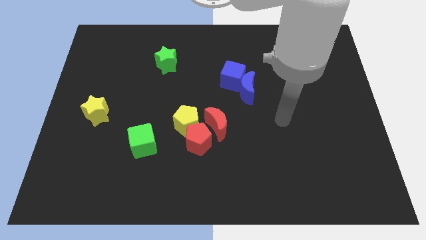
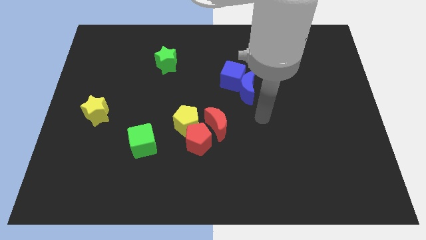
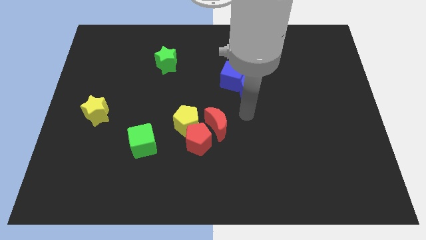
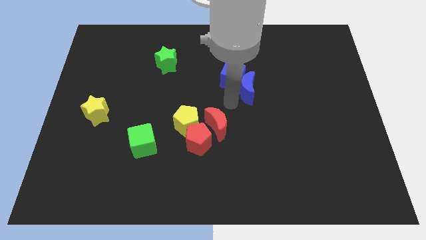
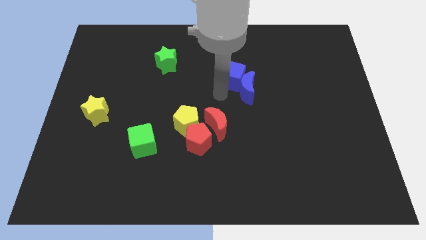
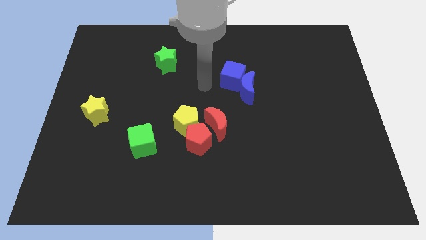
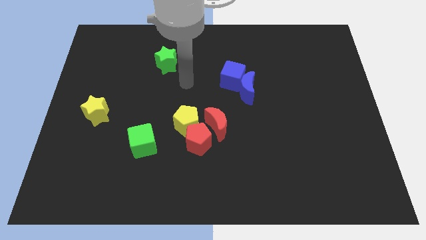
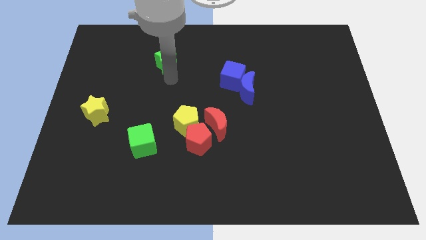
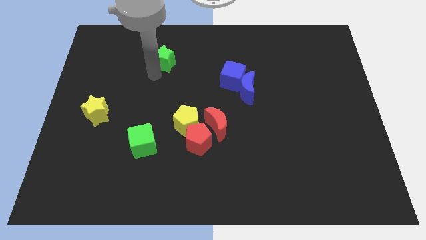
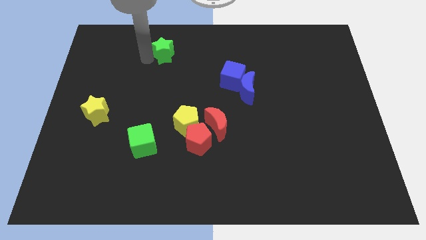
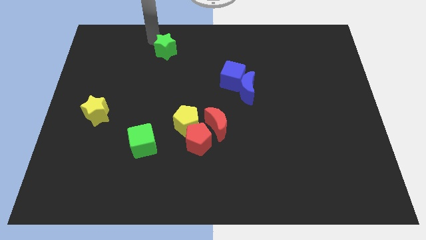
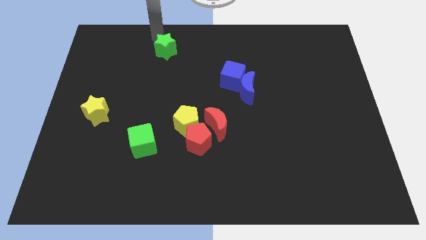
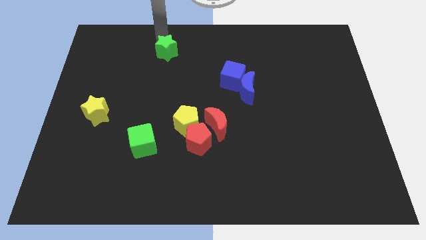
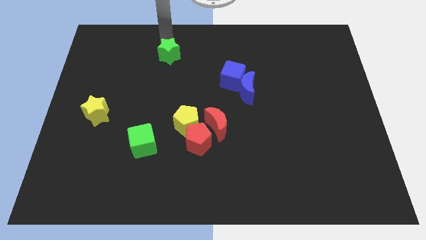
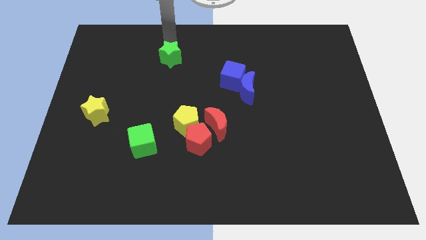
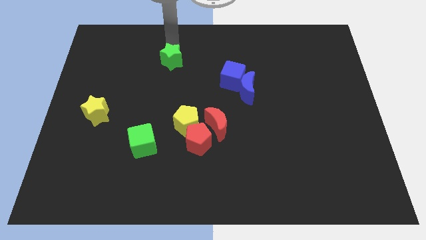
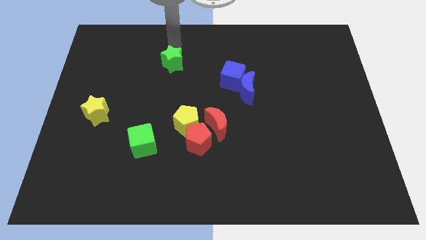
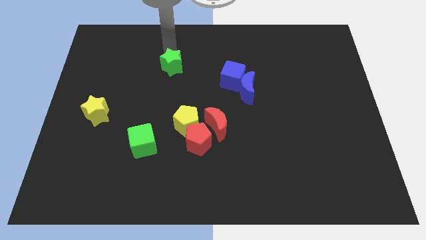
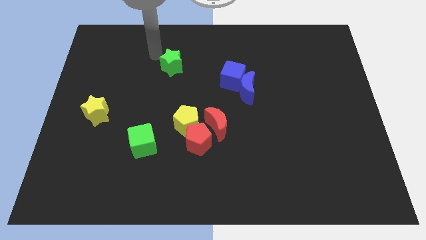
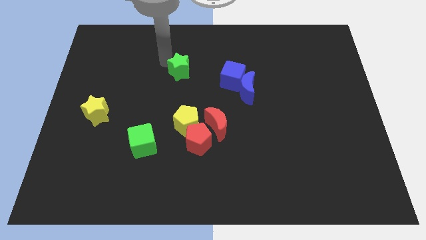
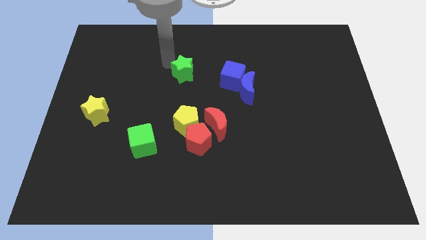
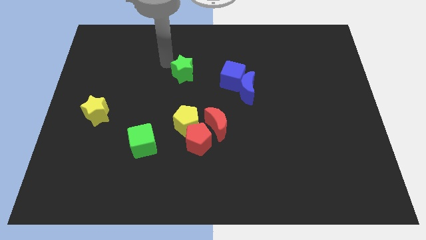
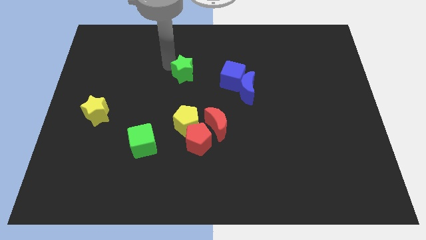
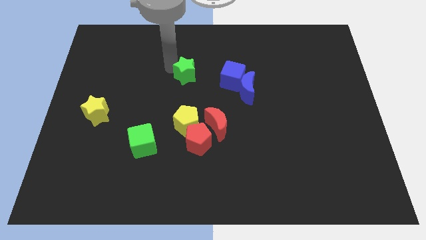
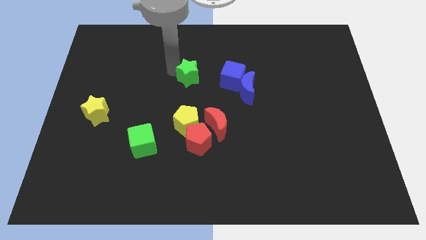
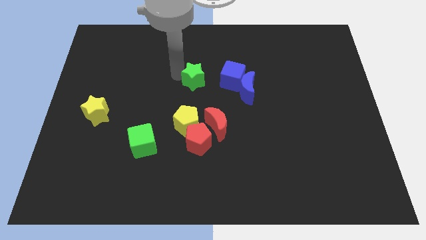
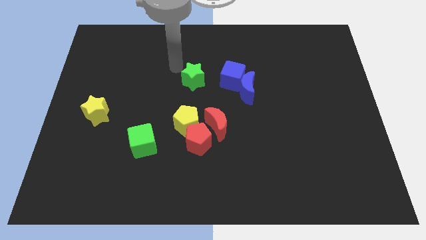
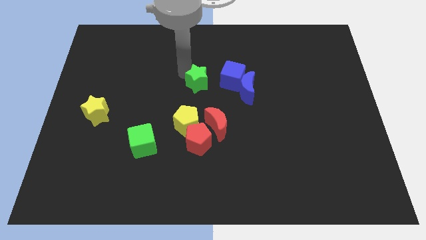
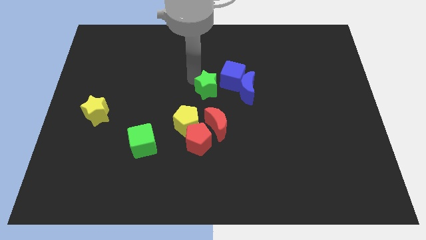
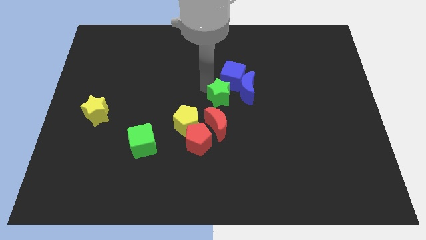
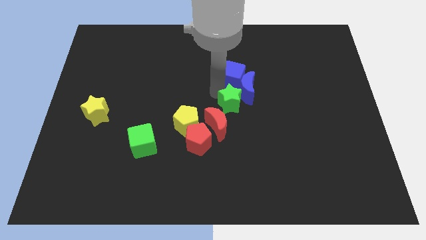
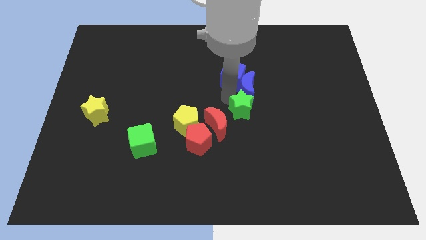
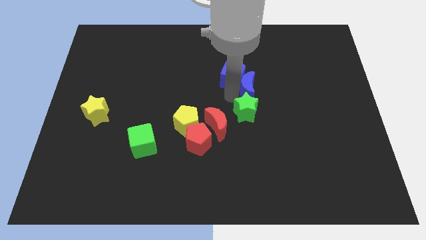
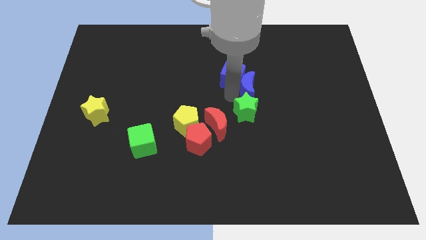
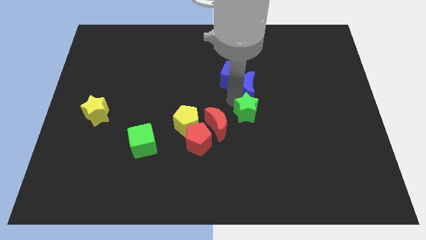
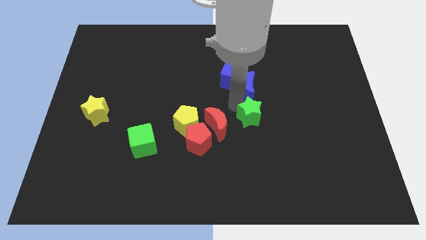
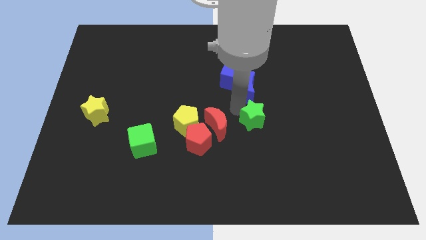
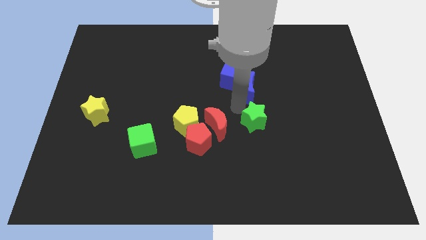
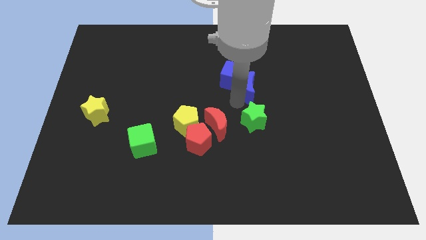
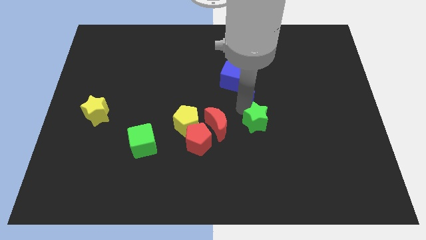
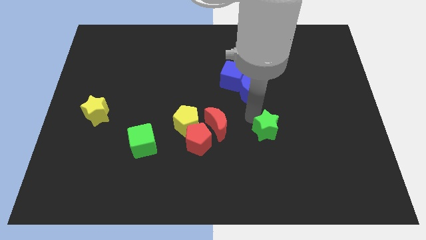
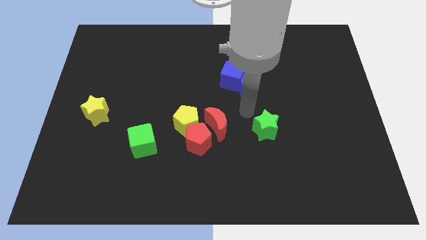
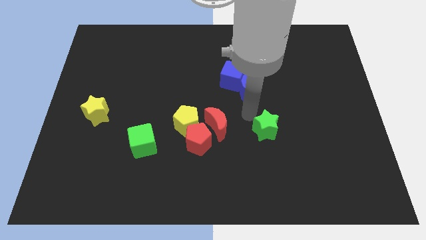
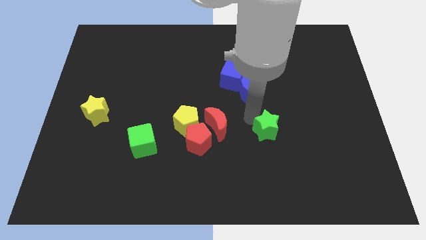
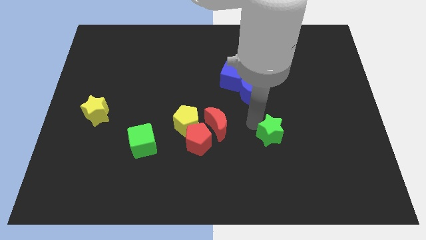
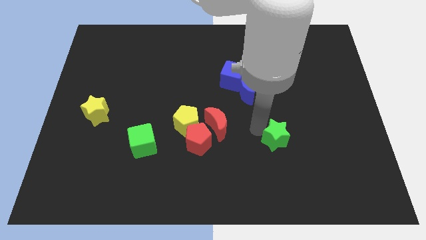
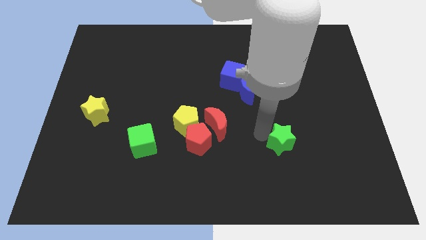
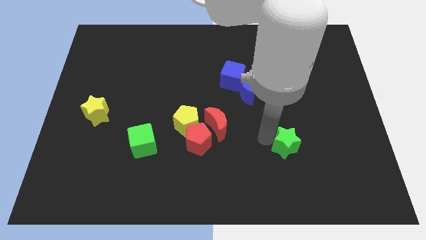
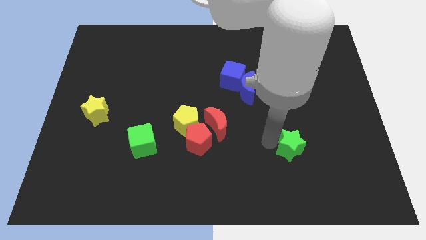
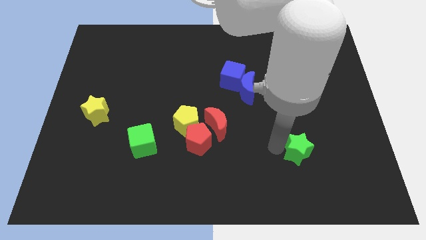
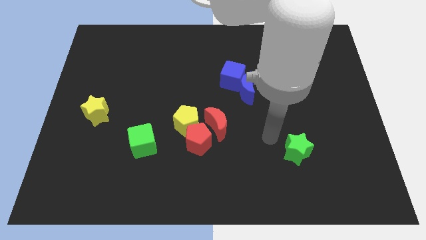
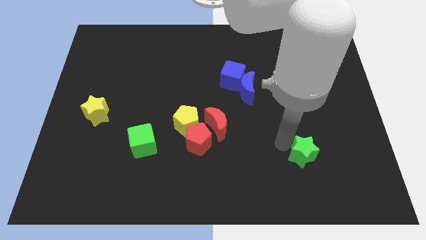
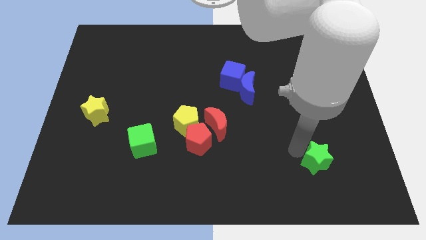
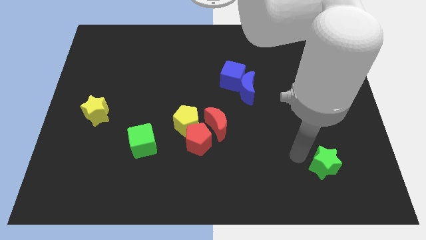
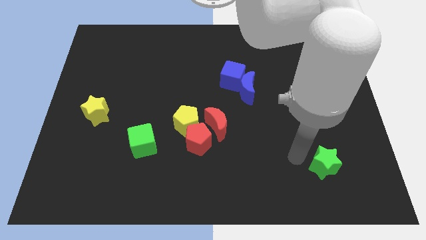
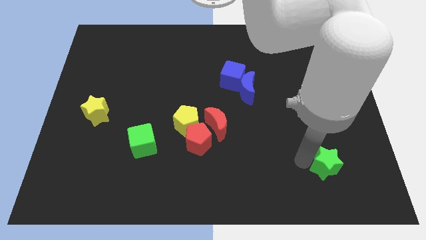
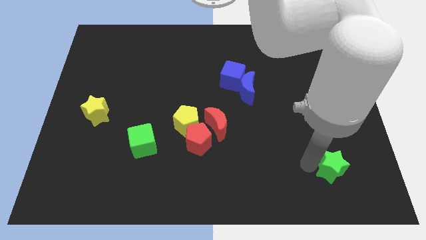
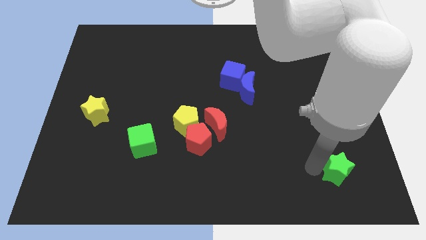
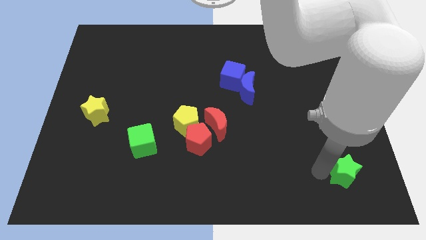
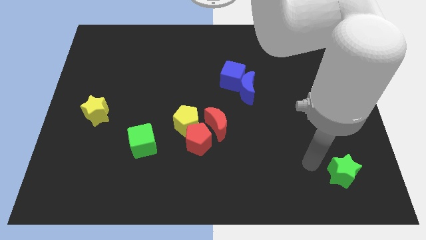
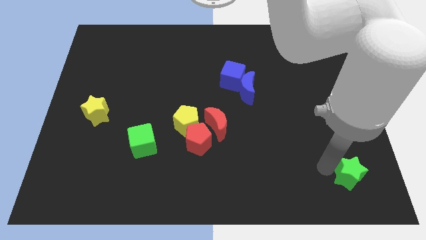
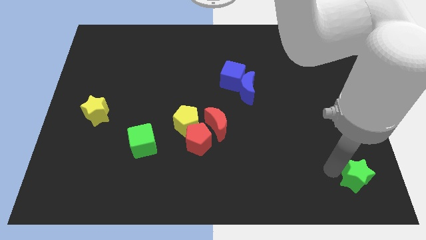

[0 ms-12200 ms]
put the green star to the bottom right of the board
